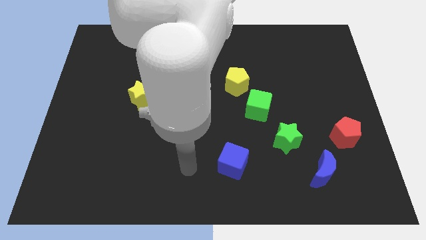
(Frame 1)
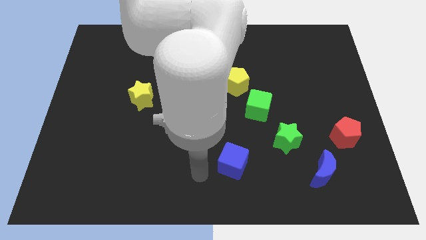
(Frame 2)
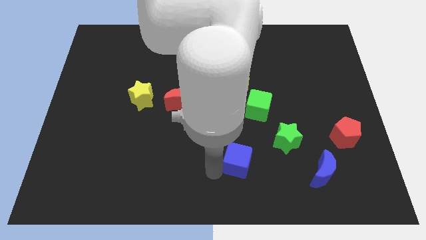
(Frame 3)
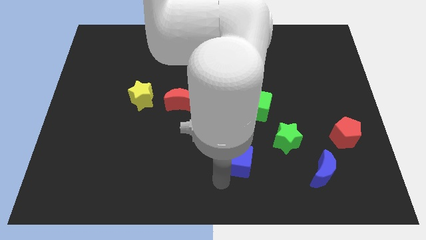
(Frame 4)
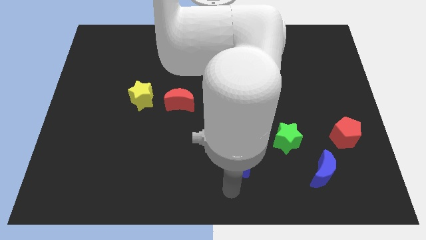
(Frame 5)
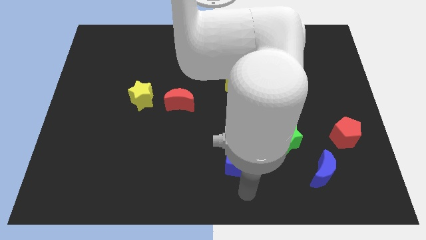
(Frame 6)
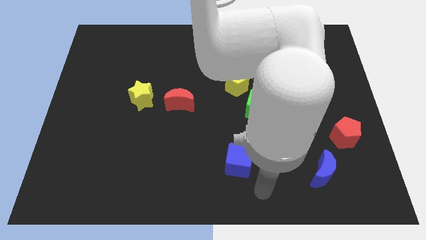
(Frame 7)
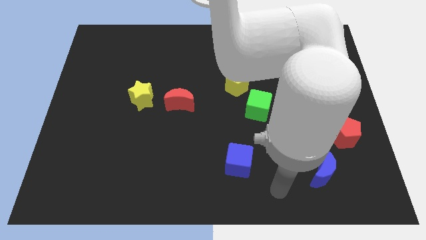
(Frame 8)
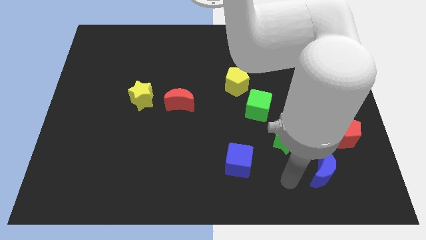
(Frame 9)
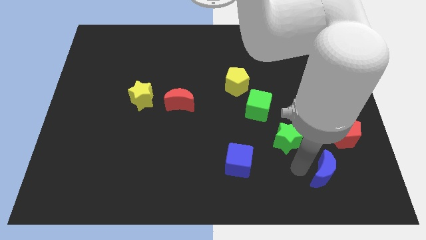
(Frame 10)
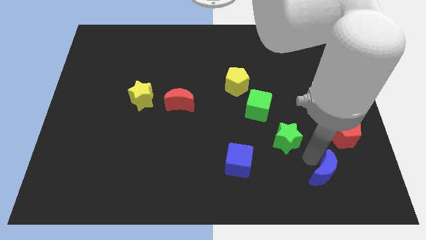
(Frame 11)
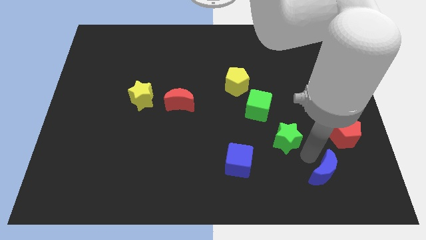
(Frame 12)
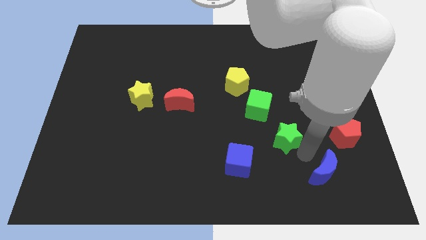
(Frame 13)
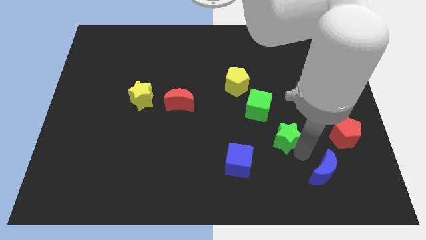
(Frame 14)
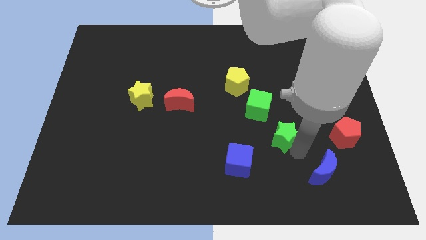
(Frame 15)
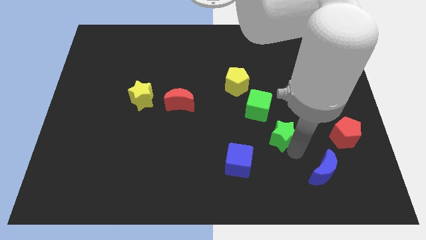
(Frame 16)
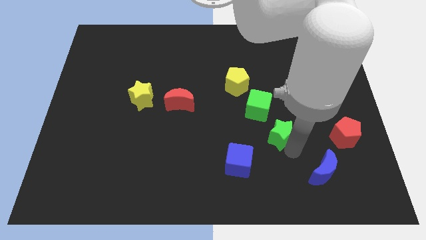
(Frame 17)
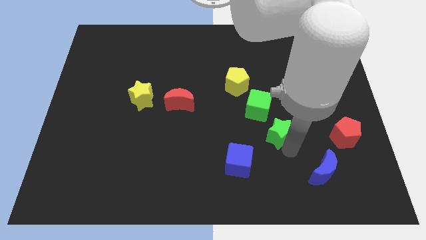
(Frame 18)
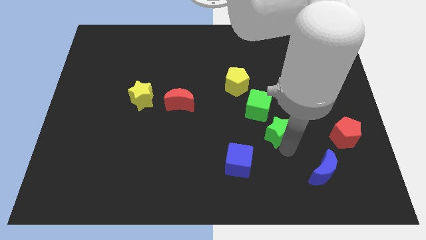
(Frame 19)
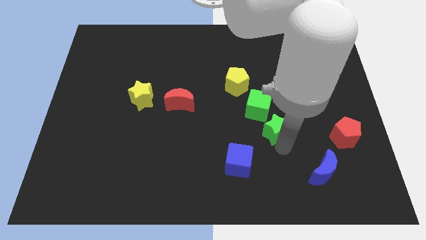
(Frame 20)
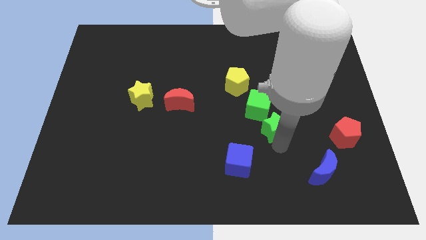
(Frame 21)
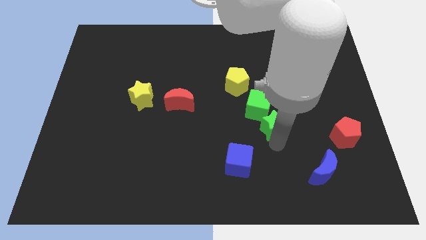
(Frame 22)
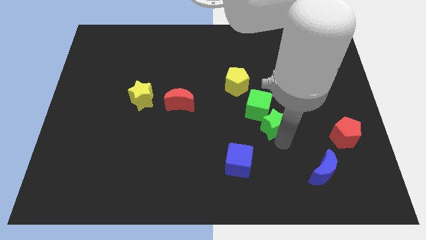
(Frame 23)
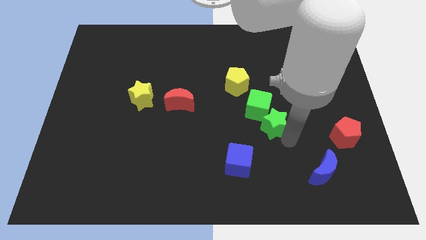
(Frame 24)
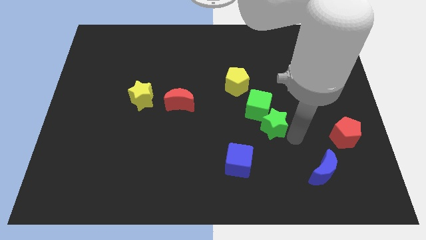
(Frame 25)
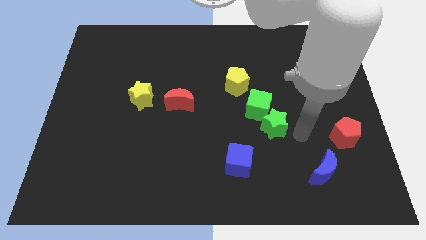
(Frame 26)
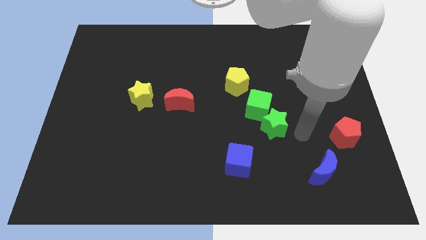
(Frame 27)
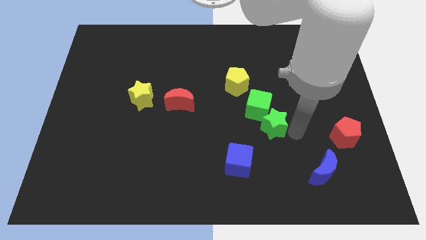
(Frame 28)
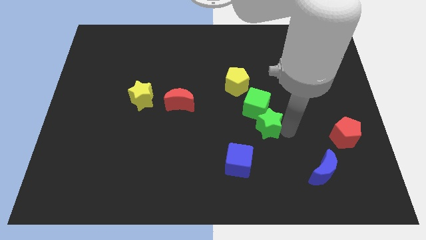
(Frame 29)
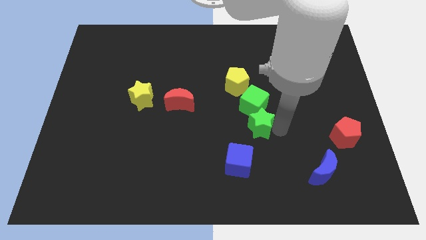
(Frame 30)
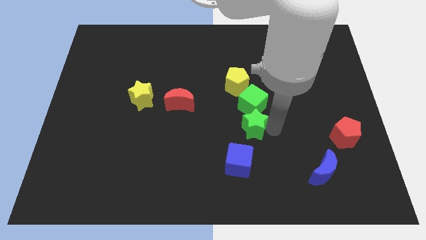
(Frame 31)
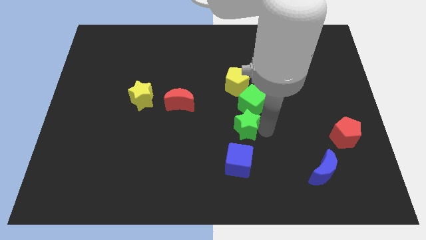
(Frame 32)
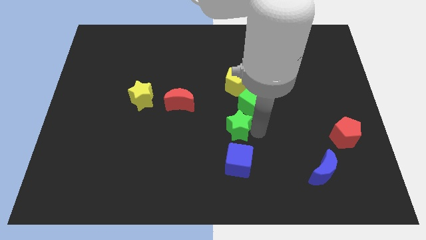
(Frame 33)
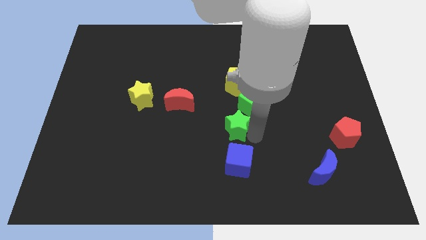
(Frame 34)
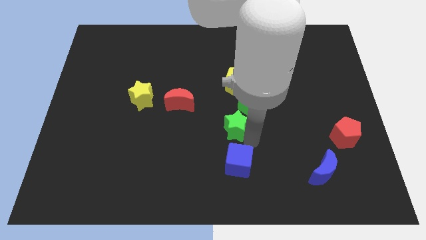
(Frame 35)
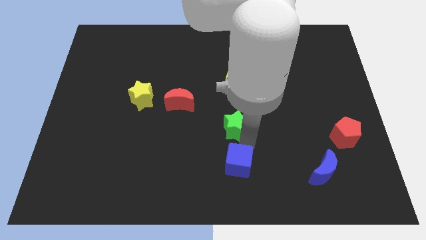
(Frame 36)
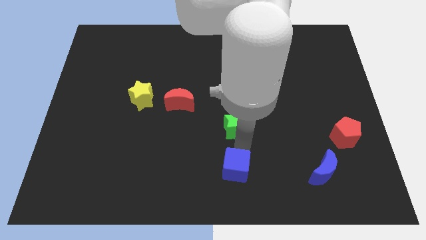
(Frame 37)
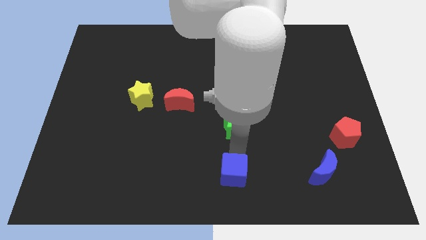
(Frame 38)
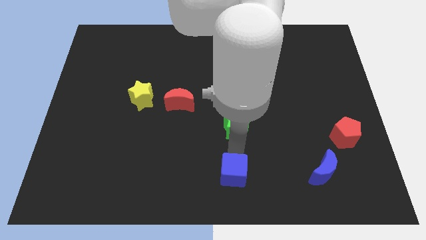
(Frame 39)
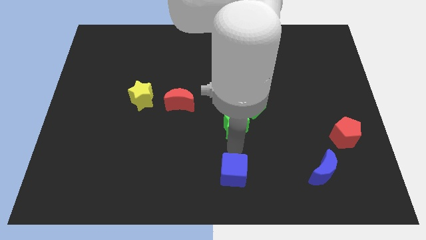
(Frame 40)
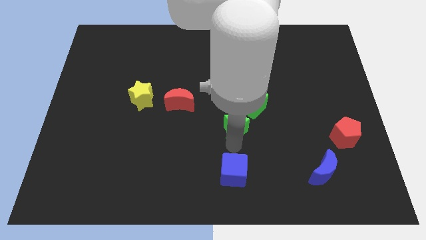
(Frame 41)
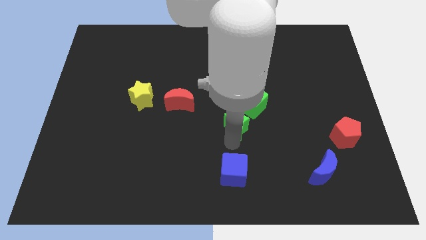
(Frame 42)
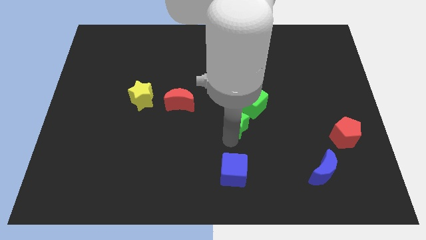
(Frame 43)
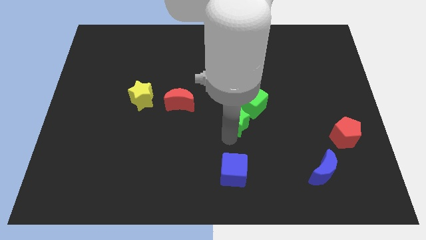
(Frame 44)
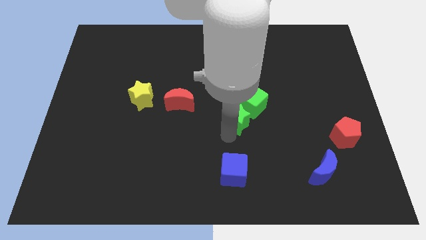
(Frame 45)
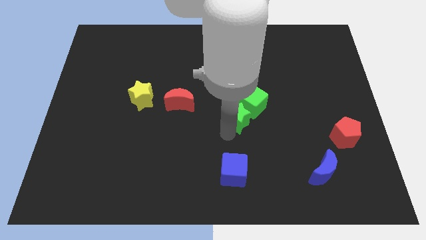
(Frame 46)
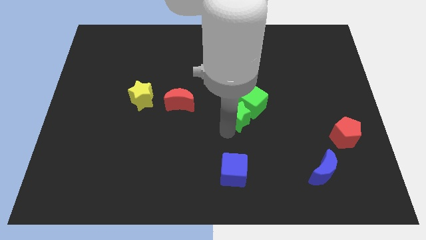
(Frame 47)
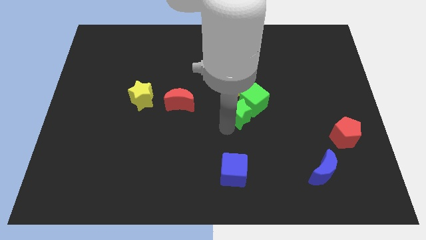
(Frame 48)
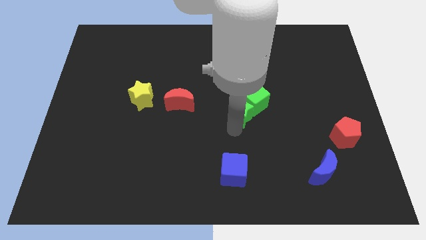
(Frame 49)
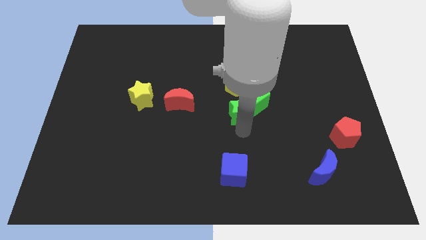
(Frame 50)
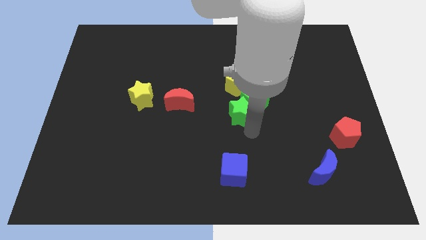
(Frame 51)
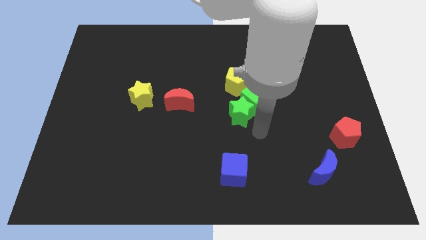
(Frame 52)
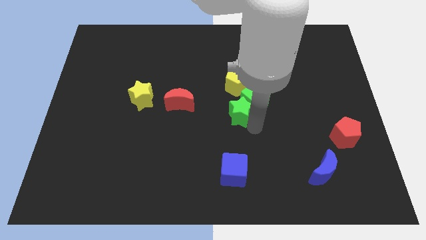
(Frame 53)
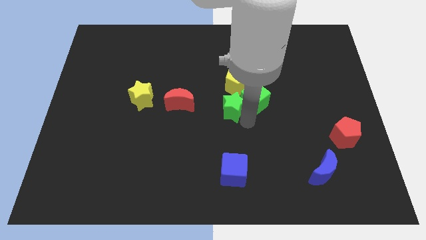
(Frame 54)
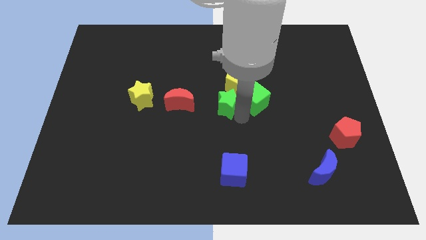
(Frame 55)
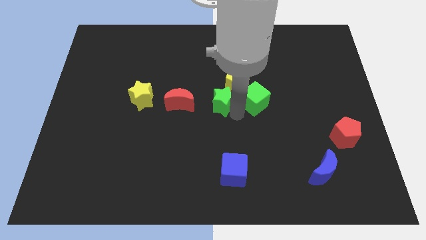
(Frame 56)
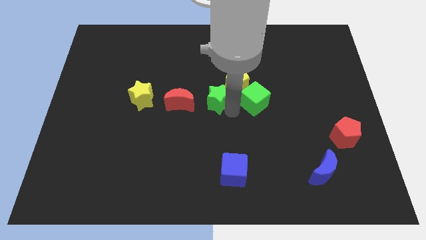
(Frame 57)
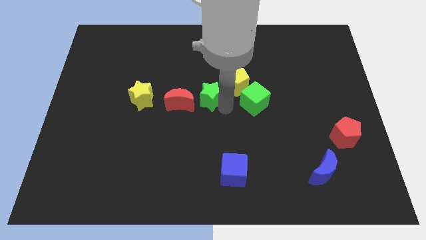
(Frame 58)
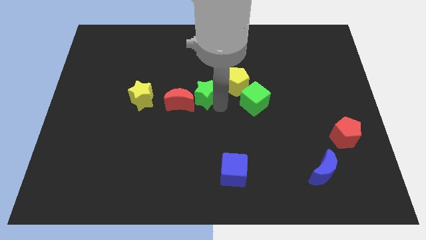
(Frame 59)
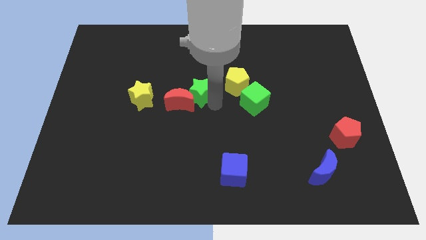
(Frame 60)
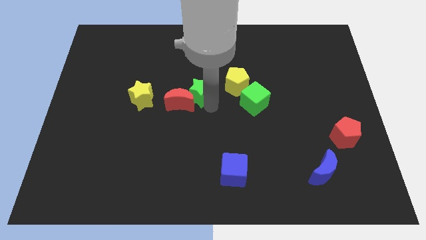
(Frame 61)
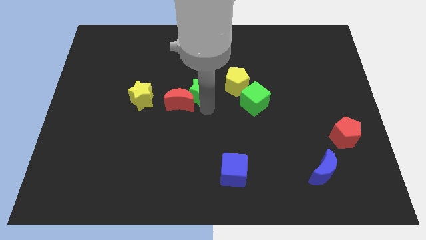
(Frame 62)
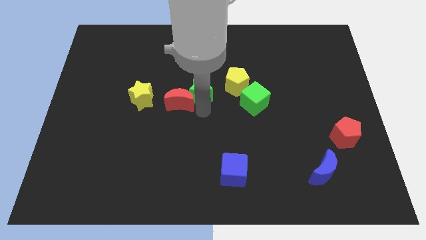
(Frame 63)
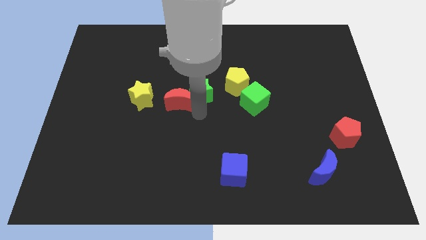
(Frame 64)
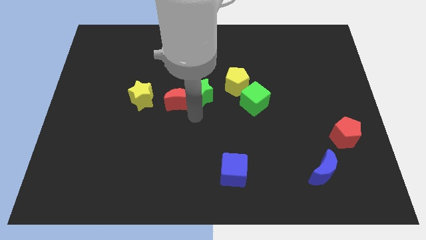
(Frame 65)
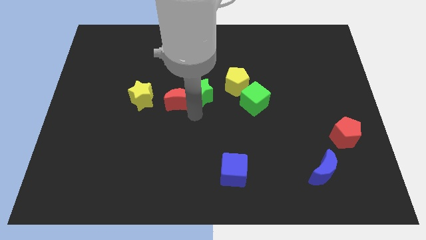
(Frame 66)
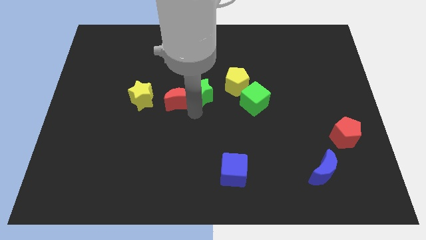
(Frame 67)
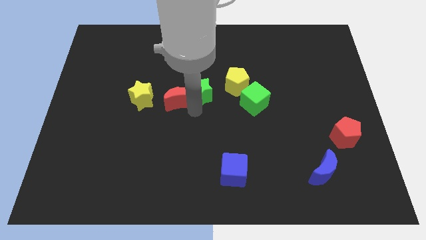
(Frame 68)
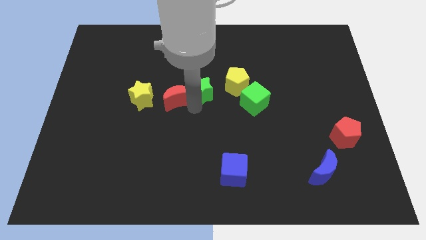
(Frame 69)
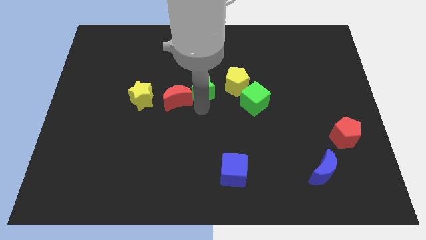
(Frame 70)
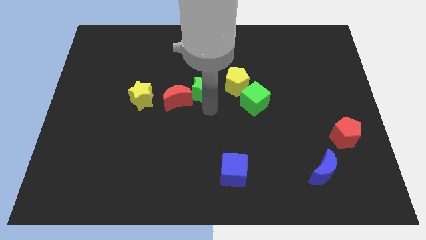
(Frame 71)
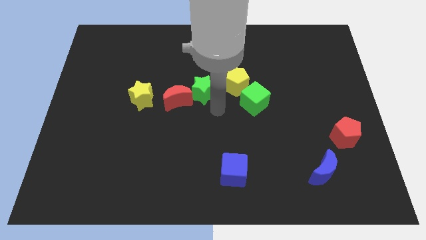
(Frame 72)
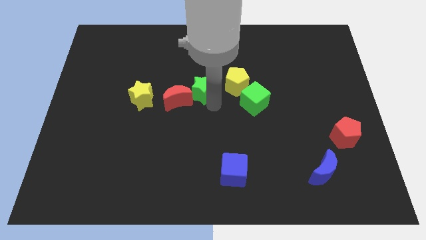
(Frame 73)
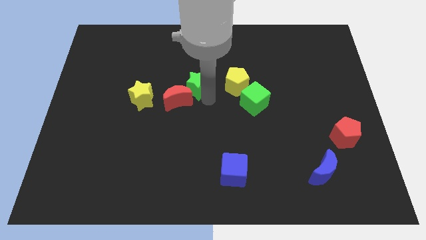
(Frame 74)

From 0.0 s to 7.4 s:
slide the green star to the top side of the red moon
